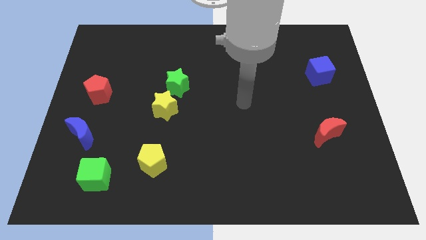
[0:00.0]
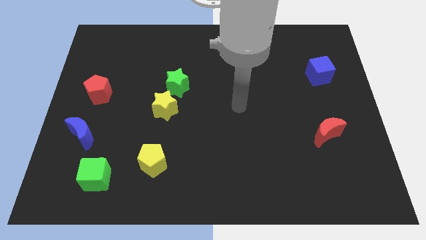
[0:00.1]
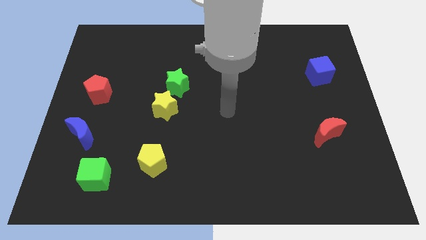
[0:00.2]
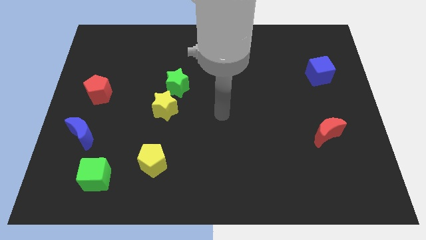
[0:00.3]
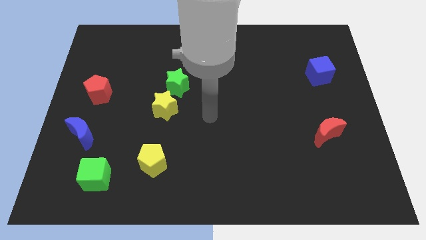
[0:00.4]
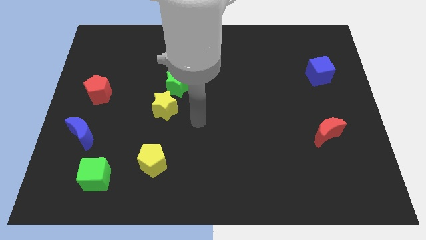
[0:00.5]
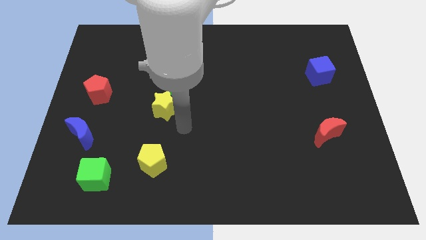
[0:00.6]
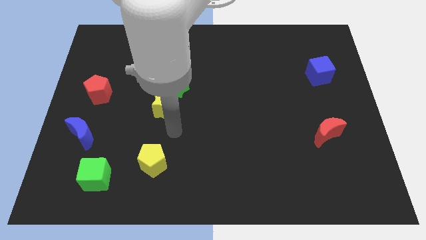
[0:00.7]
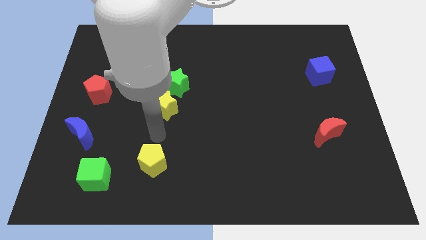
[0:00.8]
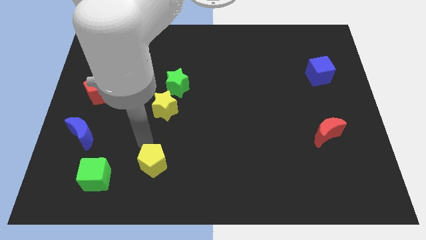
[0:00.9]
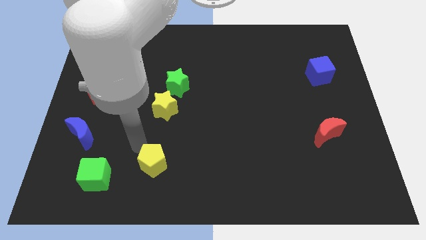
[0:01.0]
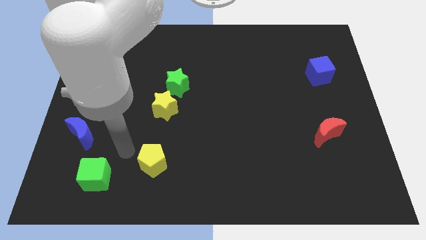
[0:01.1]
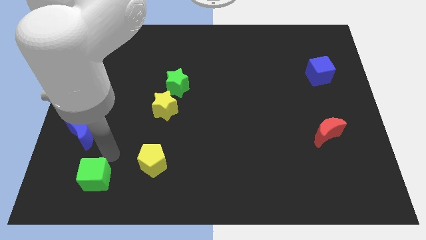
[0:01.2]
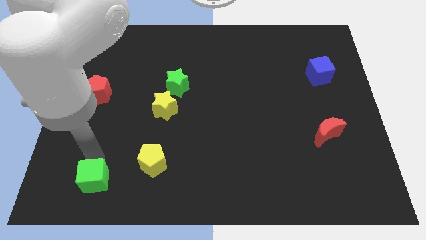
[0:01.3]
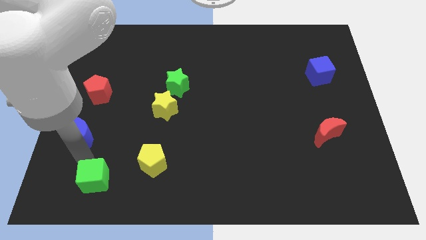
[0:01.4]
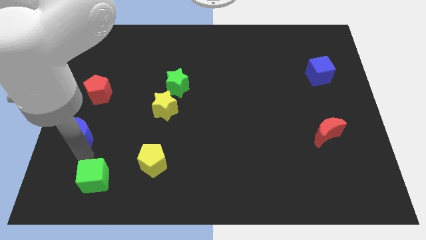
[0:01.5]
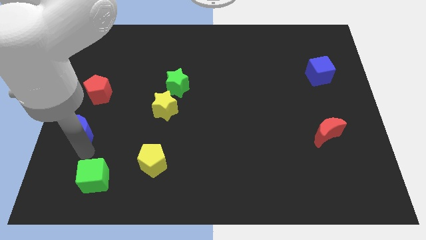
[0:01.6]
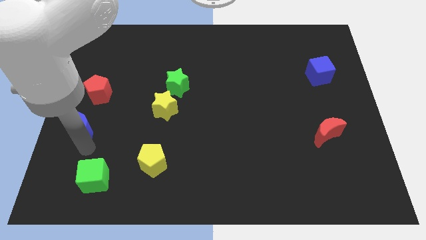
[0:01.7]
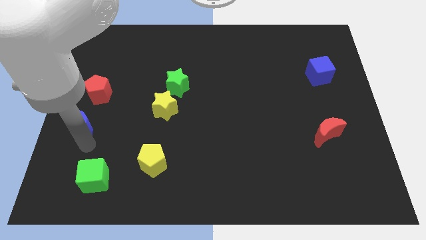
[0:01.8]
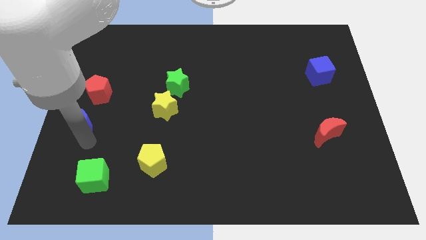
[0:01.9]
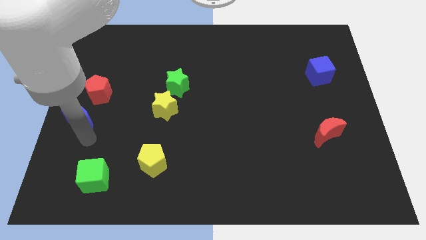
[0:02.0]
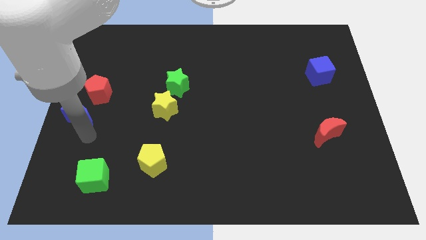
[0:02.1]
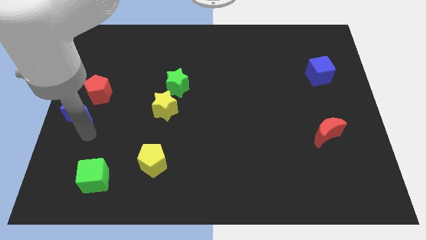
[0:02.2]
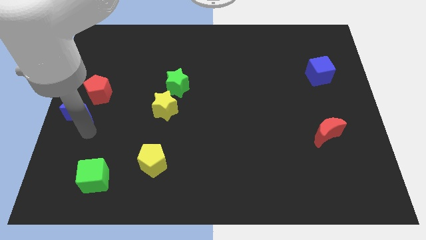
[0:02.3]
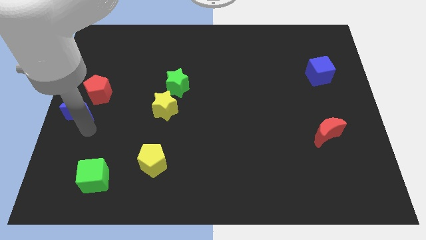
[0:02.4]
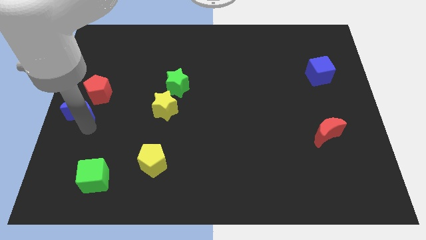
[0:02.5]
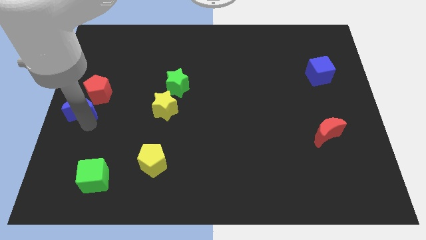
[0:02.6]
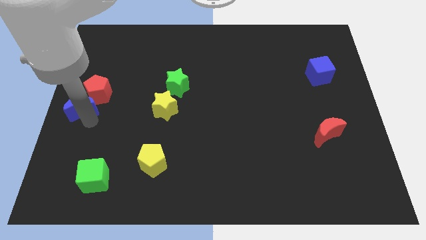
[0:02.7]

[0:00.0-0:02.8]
move the blue moon upwards somewhat

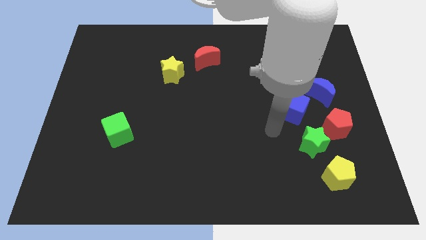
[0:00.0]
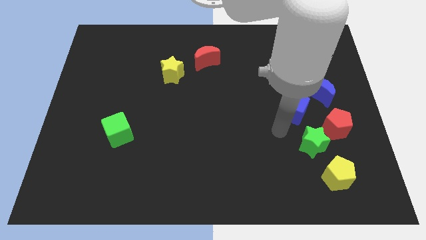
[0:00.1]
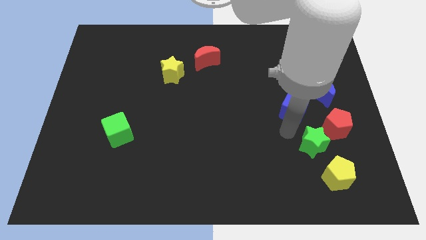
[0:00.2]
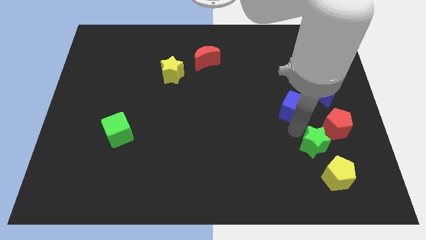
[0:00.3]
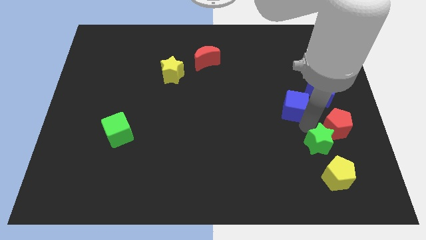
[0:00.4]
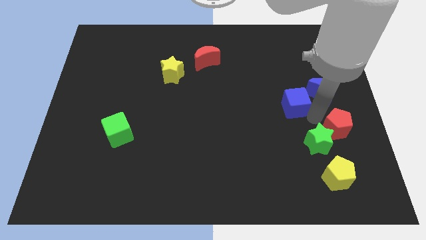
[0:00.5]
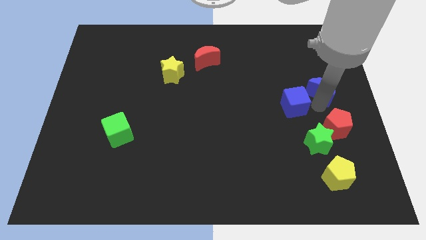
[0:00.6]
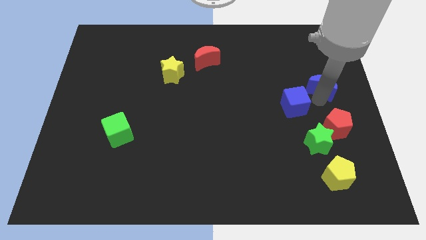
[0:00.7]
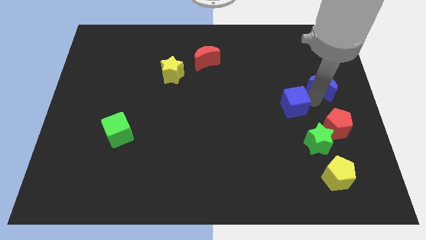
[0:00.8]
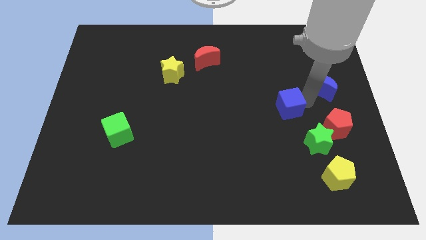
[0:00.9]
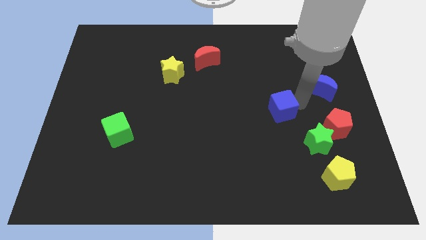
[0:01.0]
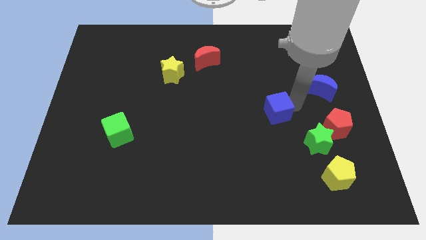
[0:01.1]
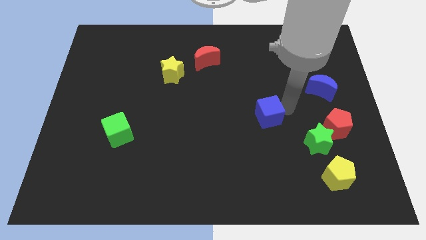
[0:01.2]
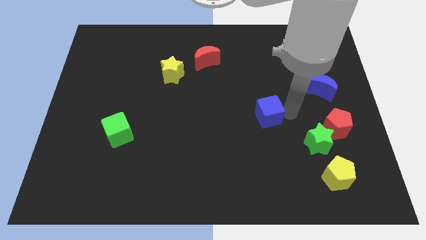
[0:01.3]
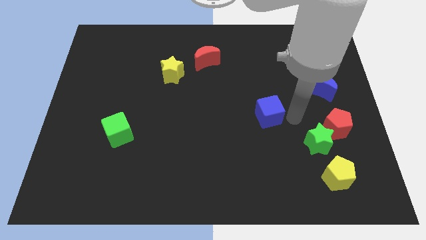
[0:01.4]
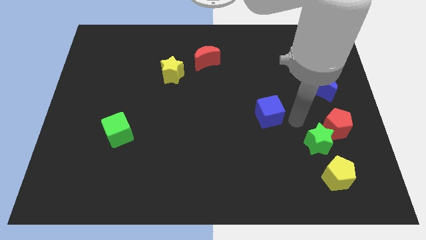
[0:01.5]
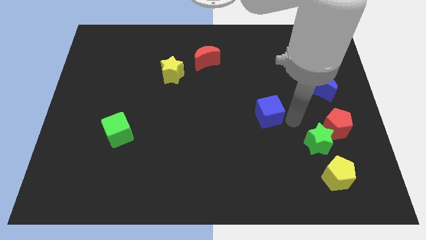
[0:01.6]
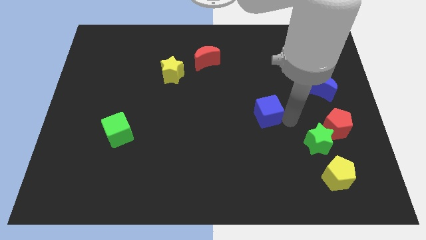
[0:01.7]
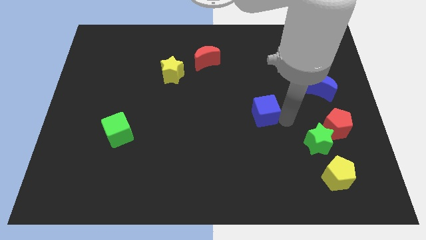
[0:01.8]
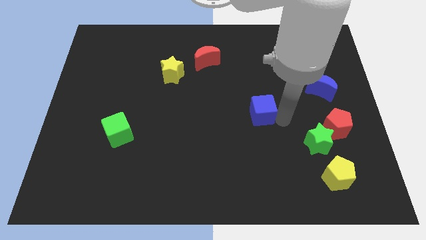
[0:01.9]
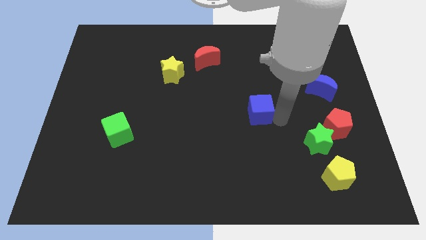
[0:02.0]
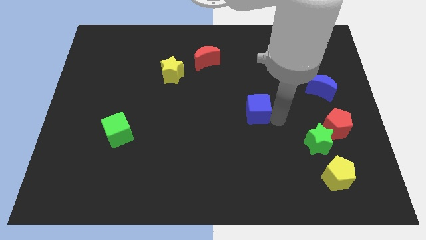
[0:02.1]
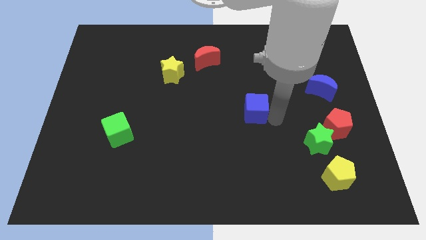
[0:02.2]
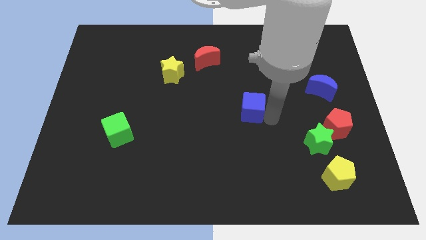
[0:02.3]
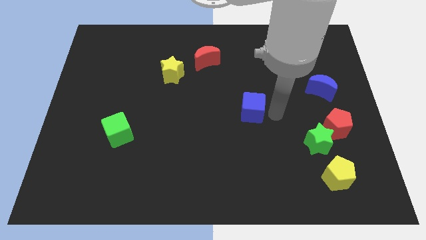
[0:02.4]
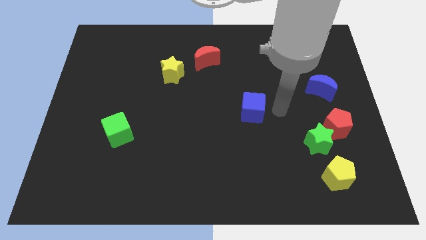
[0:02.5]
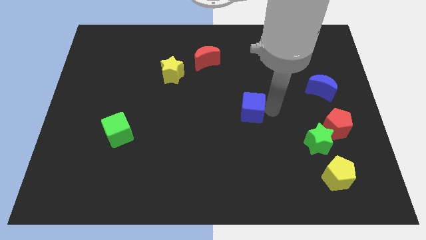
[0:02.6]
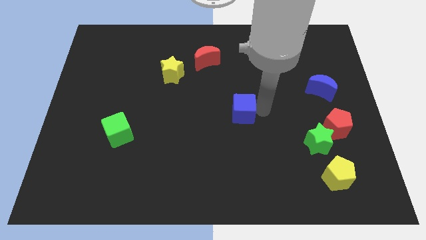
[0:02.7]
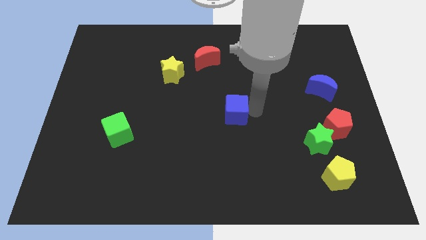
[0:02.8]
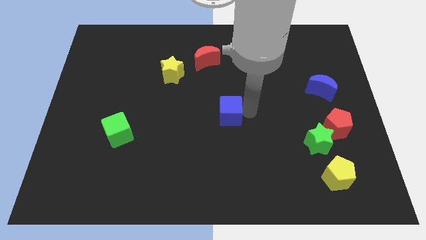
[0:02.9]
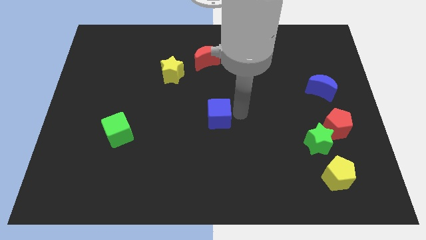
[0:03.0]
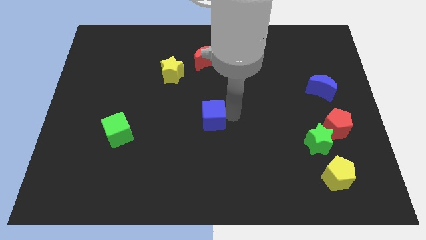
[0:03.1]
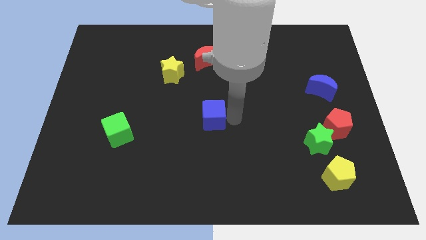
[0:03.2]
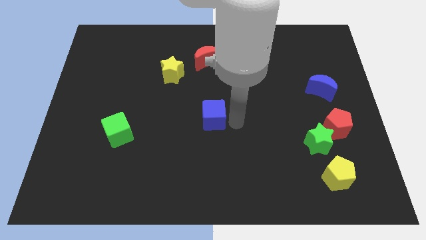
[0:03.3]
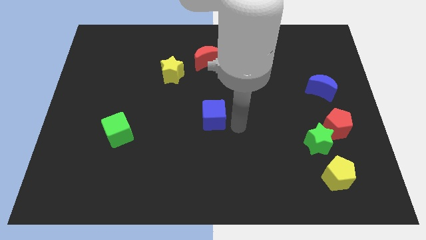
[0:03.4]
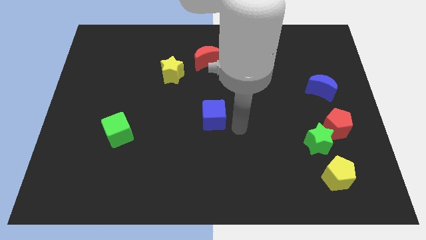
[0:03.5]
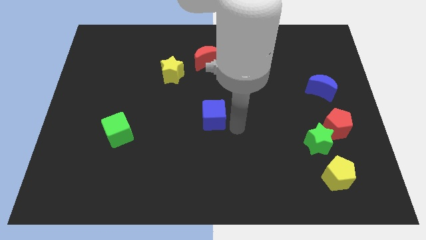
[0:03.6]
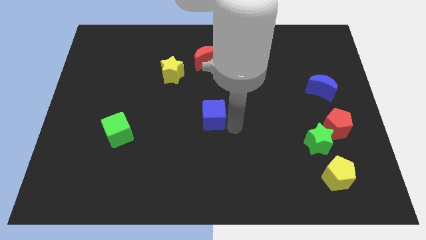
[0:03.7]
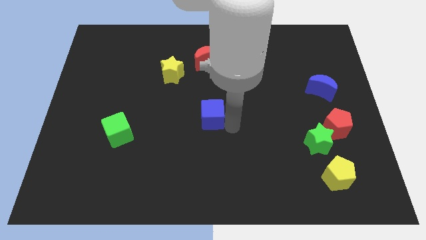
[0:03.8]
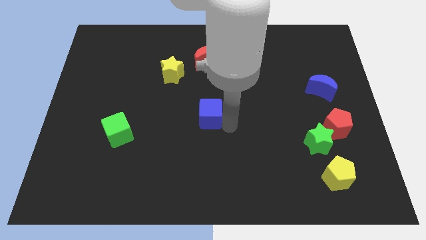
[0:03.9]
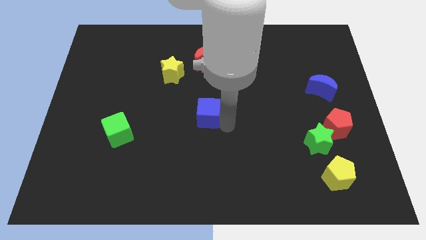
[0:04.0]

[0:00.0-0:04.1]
slide the blue cube left

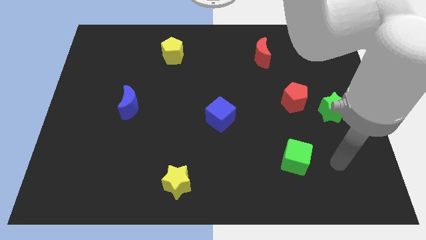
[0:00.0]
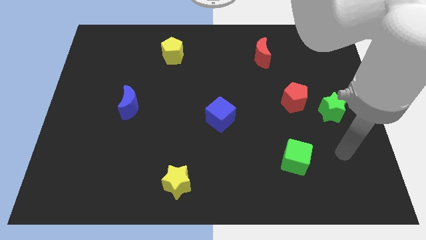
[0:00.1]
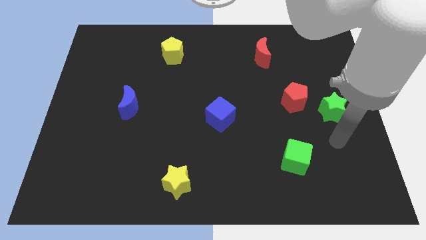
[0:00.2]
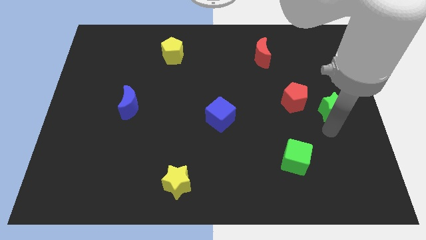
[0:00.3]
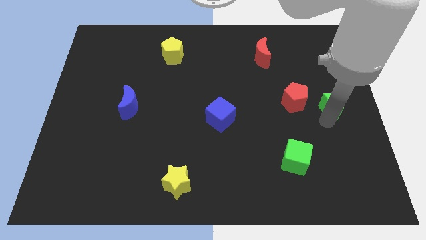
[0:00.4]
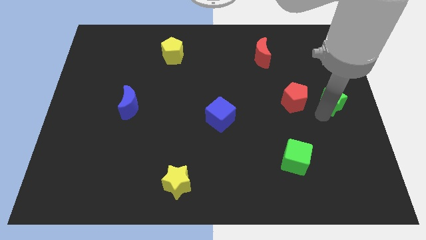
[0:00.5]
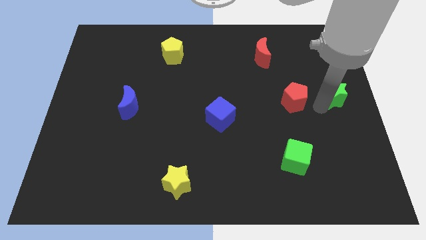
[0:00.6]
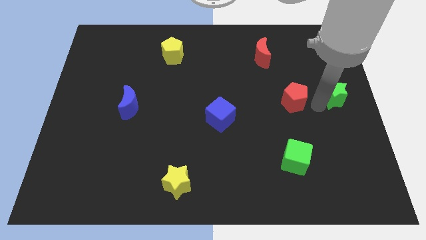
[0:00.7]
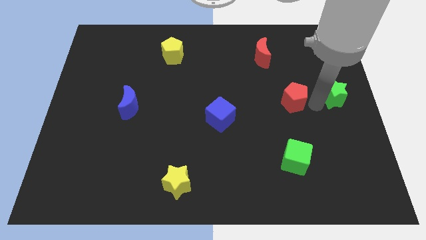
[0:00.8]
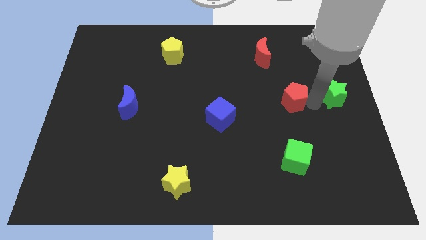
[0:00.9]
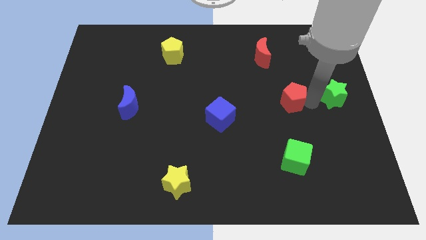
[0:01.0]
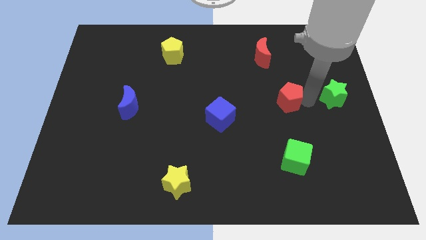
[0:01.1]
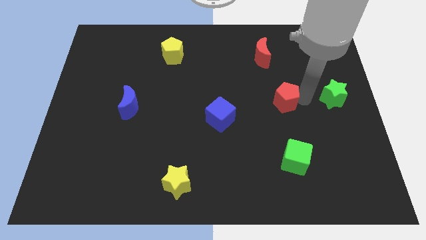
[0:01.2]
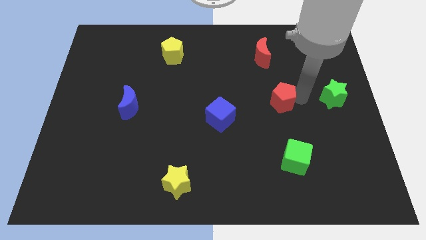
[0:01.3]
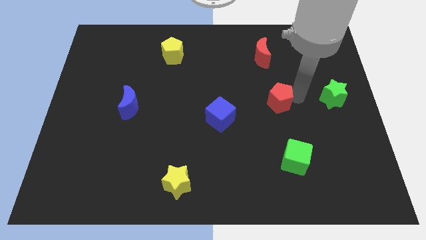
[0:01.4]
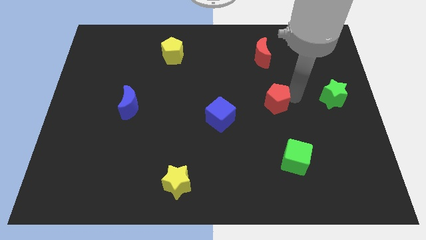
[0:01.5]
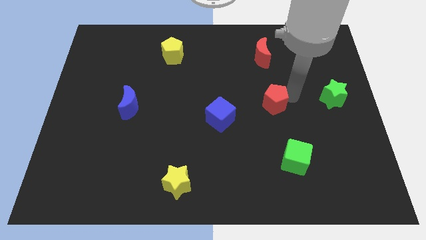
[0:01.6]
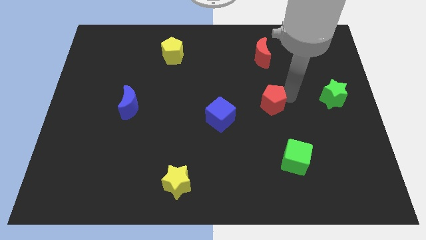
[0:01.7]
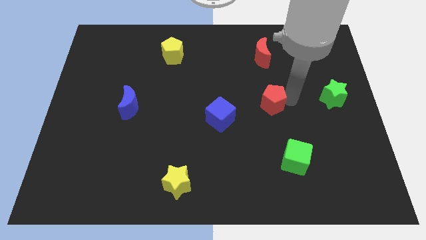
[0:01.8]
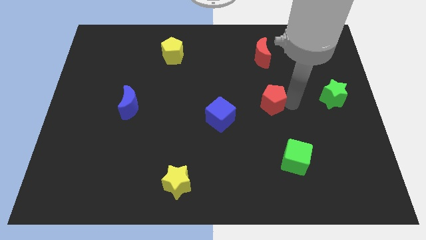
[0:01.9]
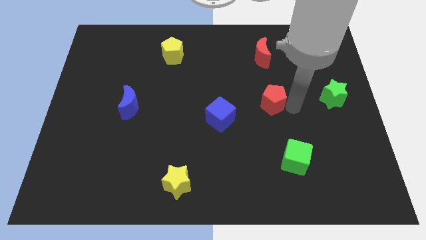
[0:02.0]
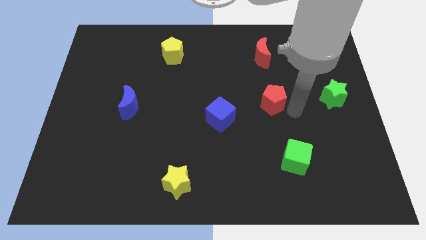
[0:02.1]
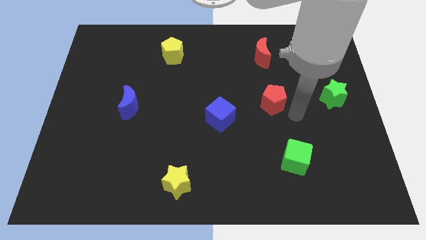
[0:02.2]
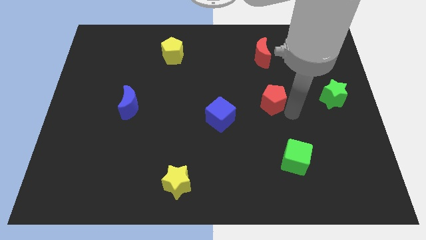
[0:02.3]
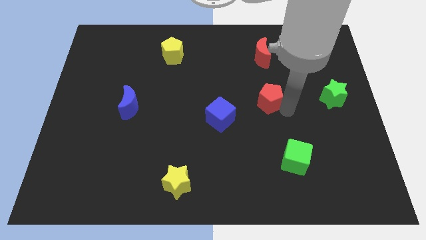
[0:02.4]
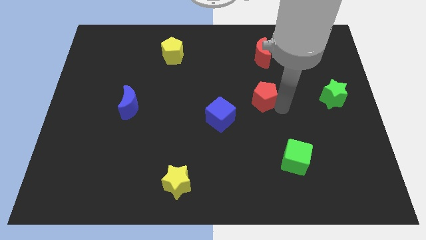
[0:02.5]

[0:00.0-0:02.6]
slightly push the red pentagon left
